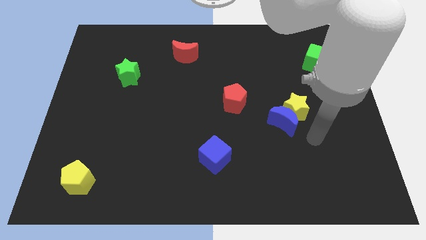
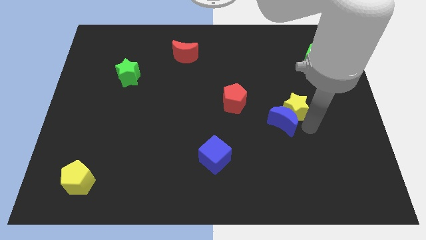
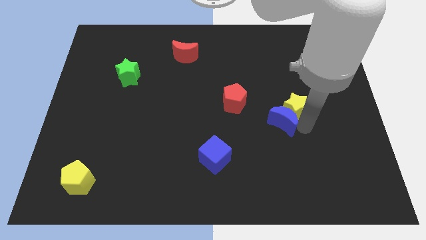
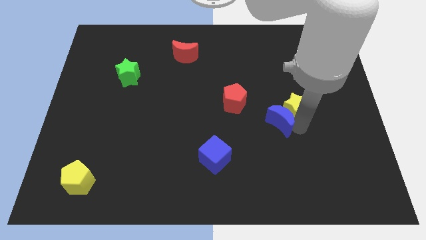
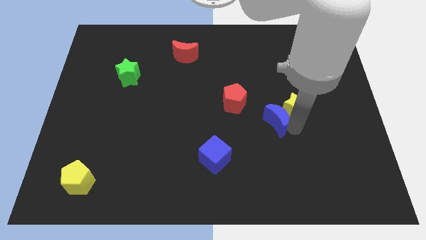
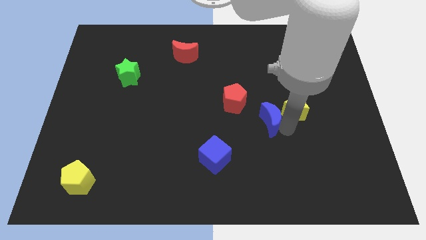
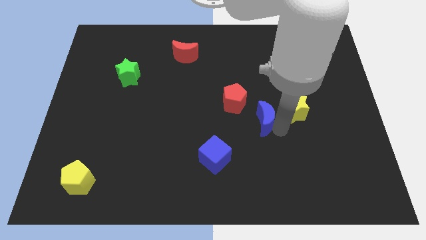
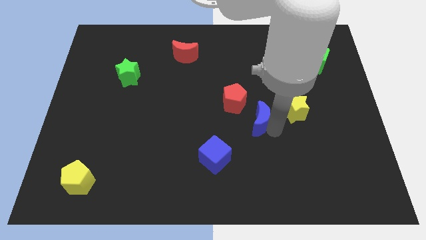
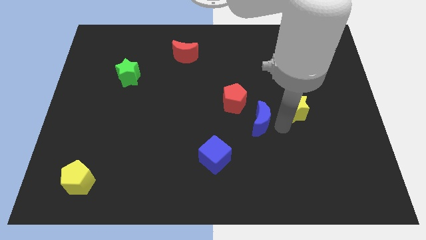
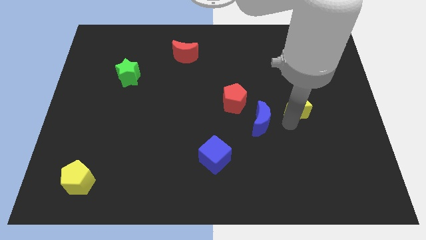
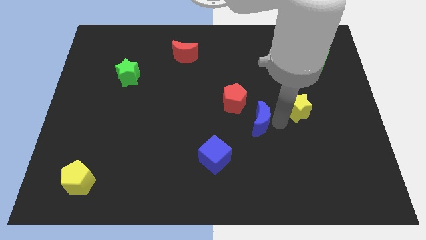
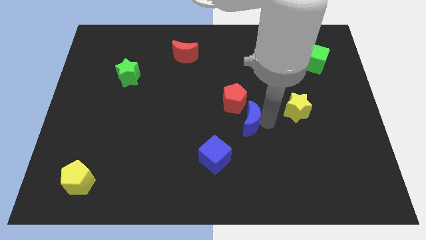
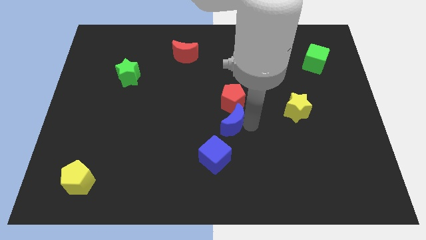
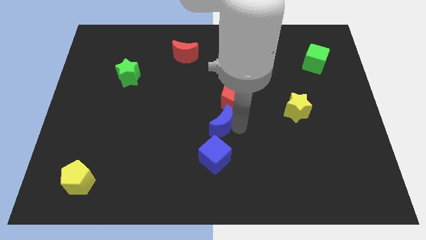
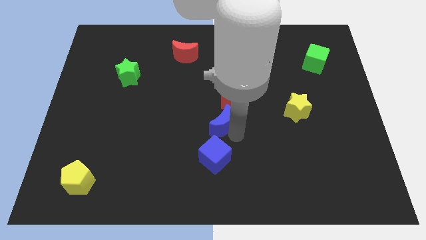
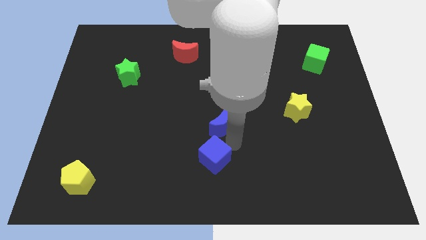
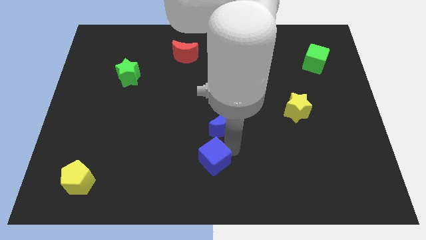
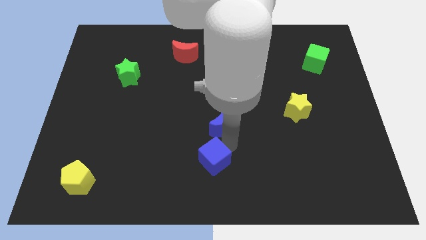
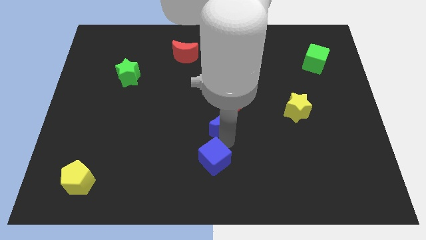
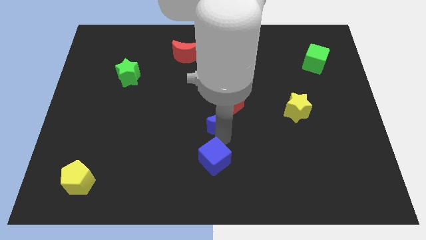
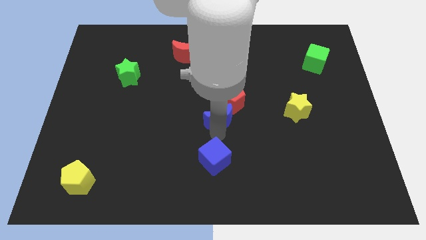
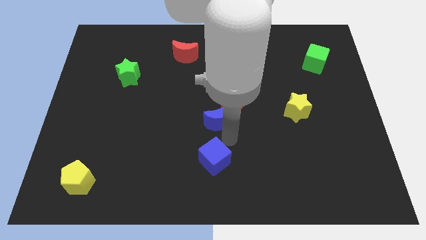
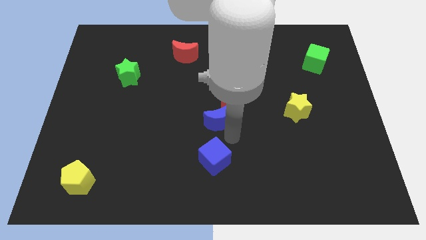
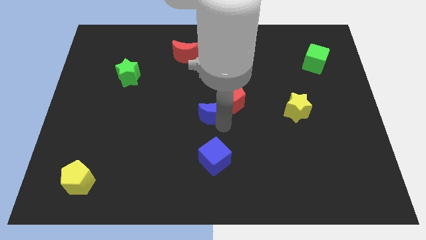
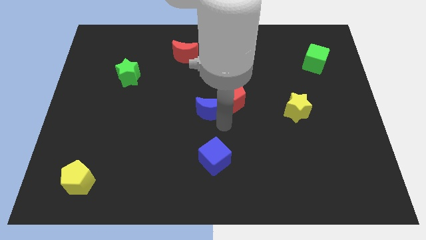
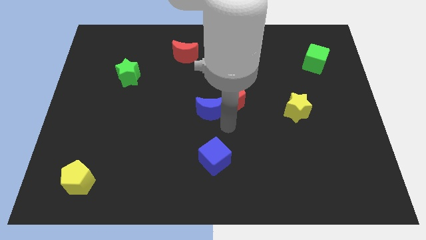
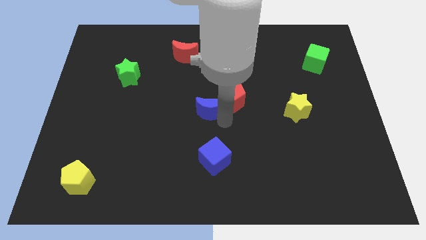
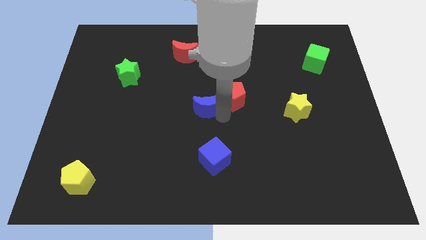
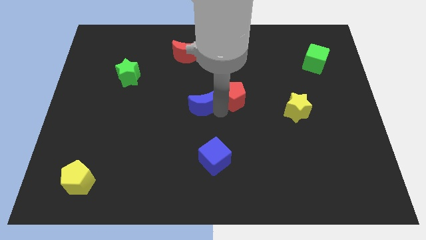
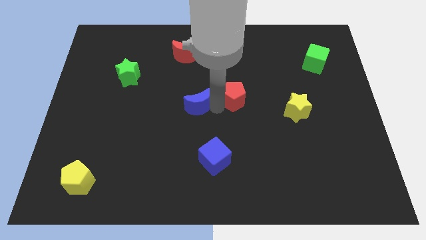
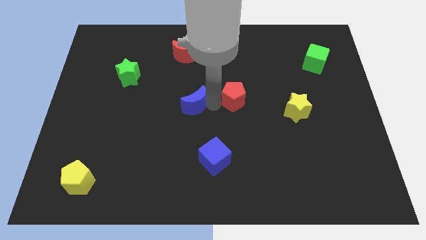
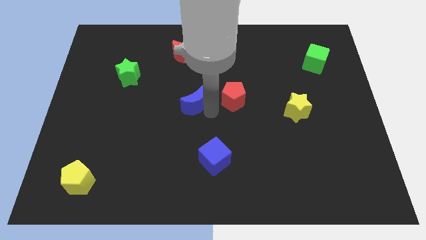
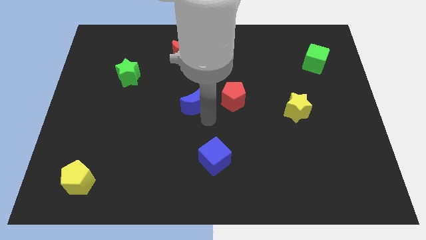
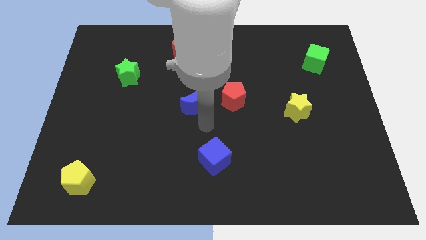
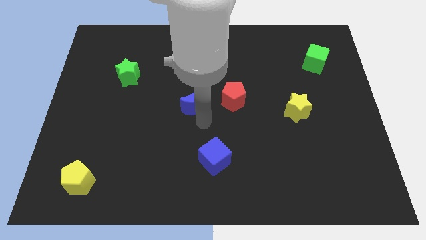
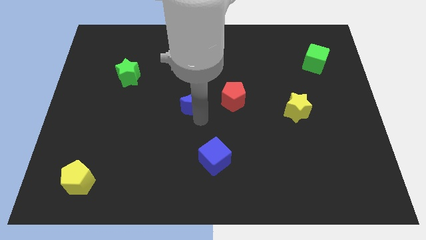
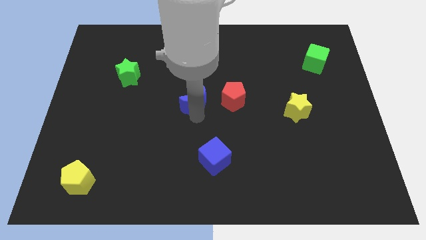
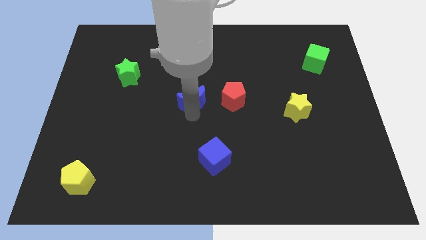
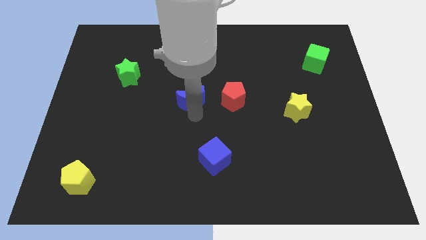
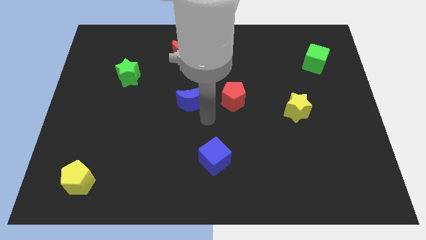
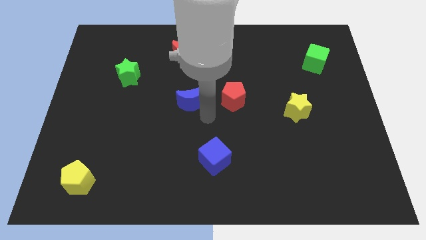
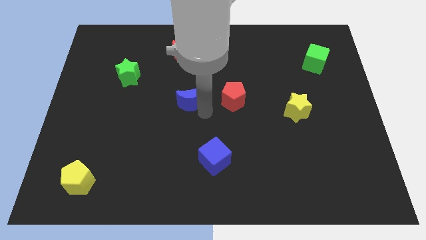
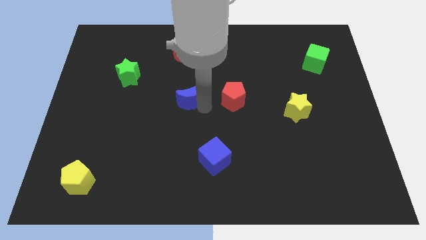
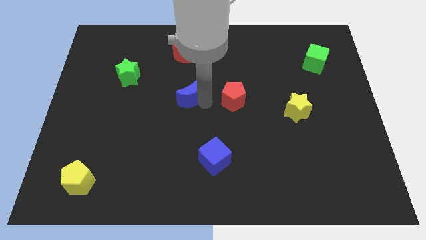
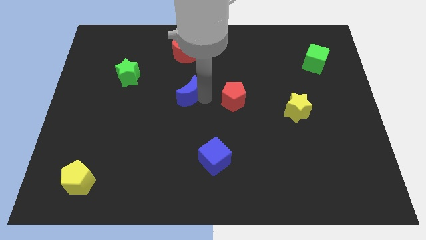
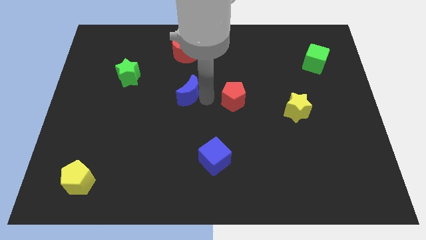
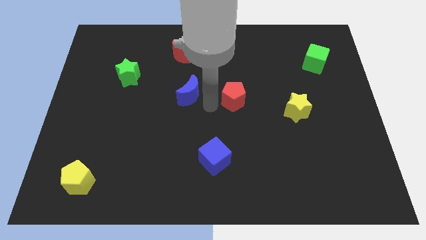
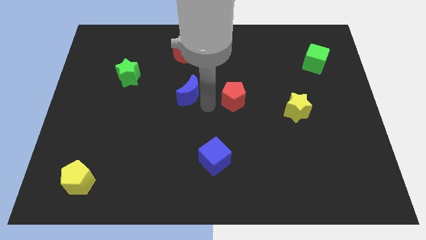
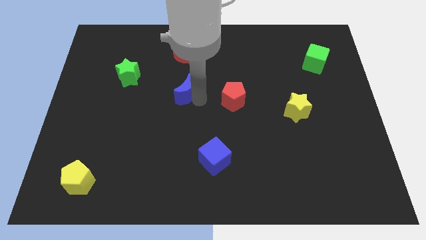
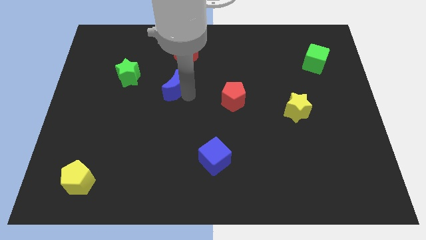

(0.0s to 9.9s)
move the blue moon to the right side of the green star

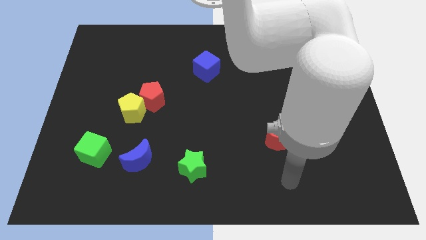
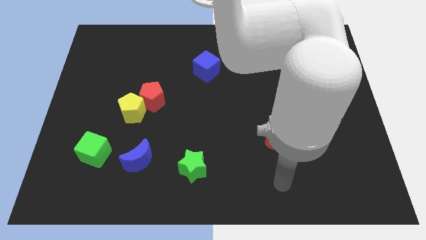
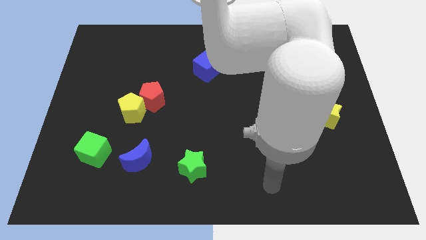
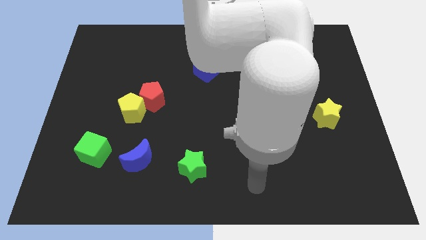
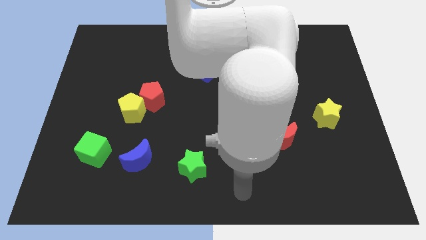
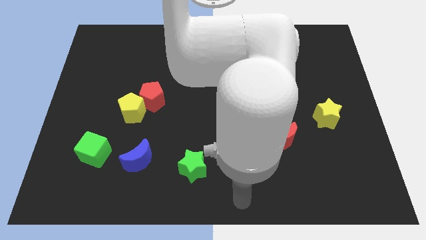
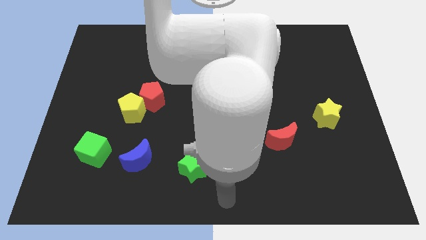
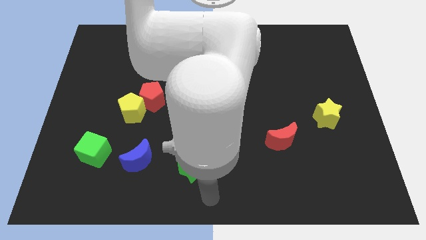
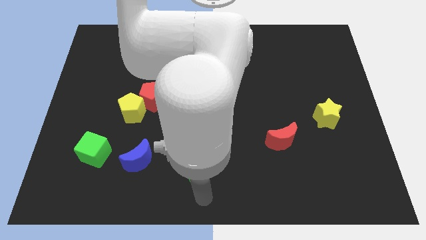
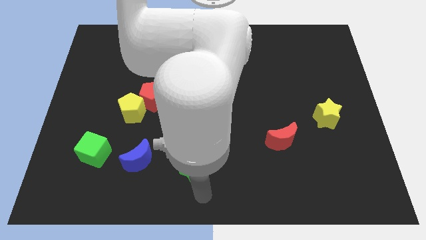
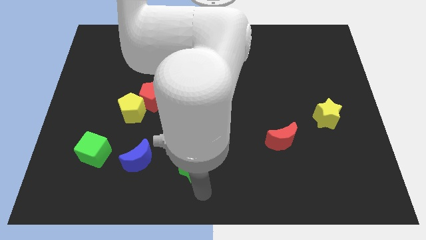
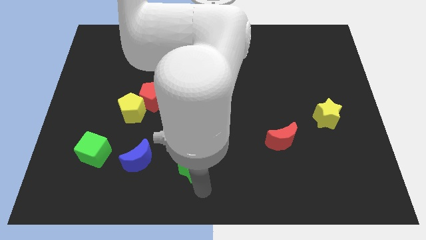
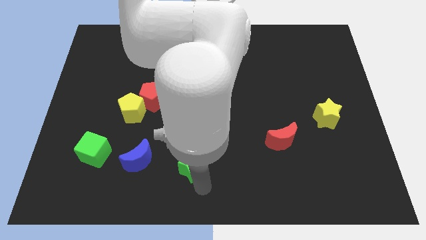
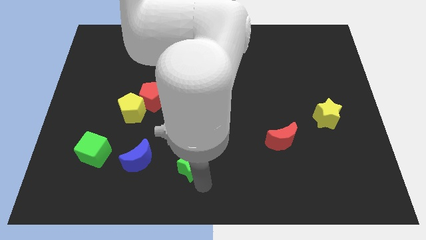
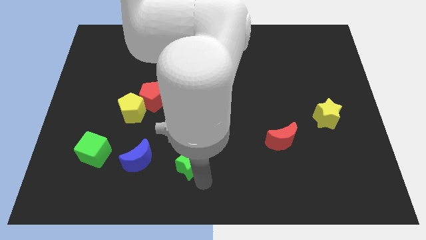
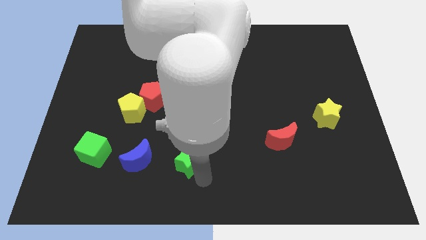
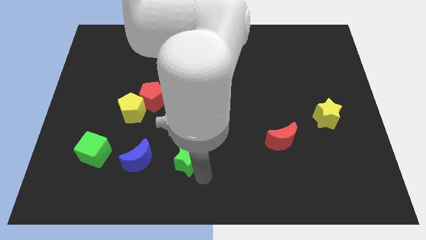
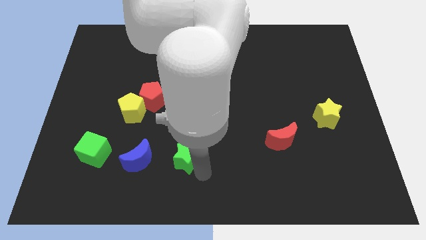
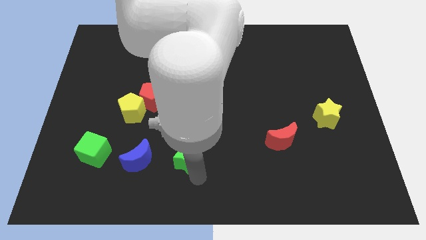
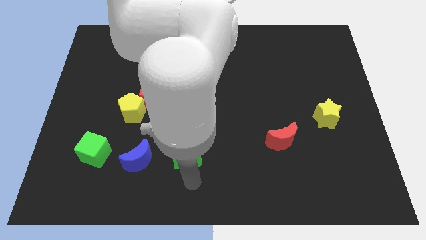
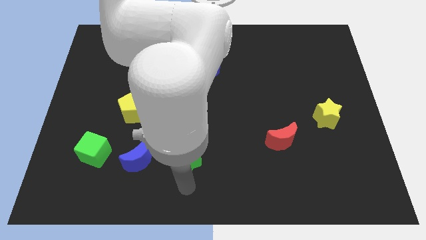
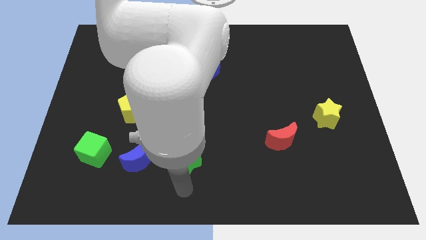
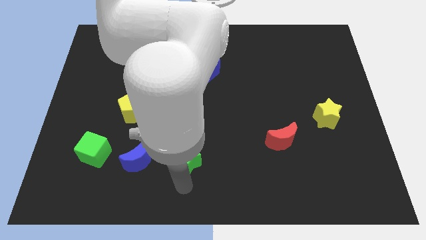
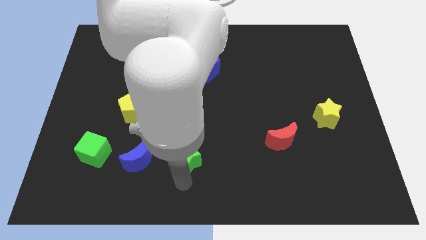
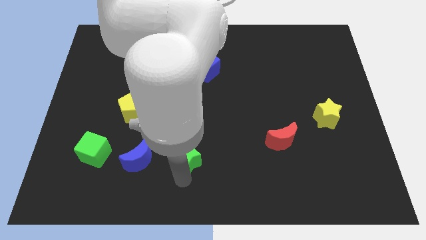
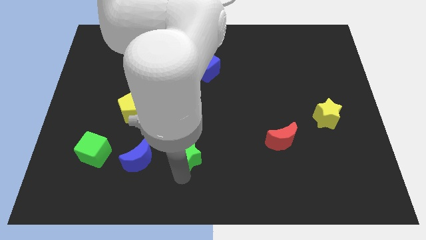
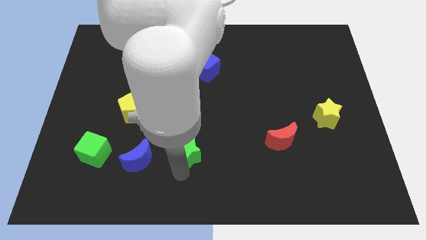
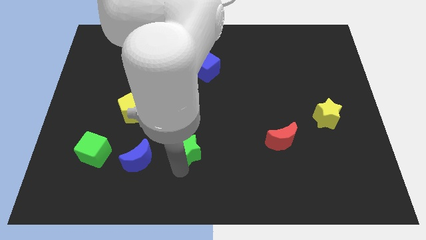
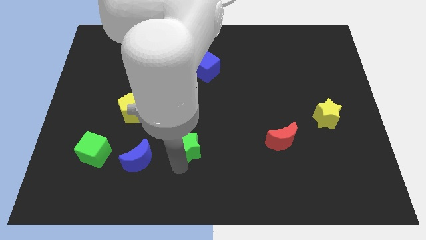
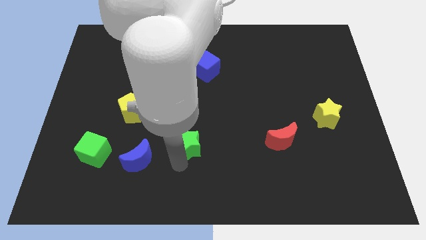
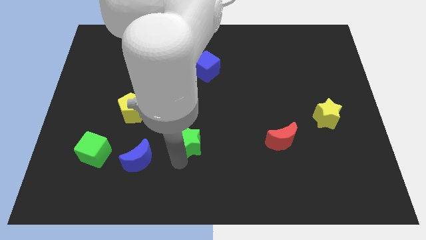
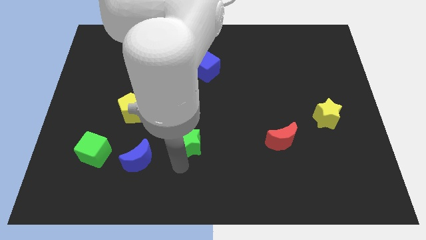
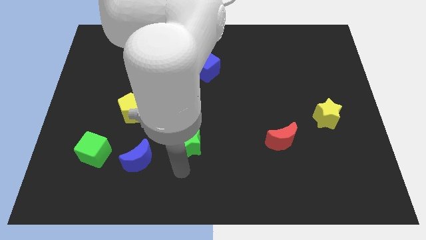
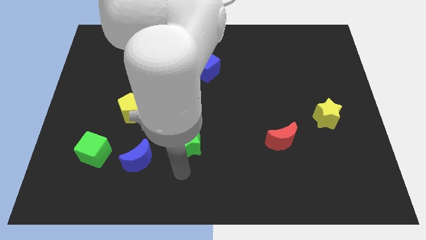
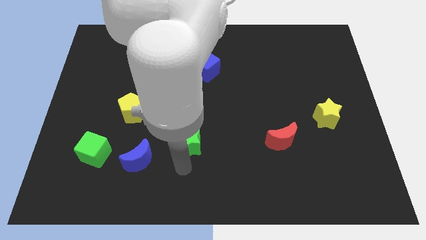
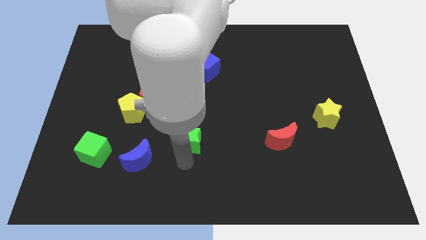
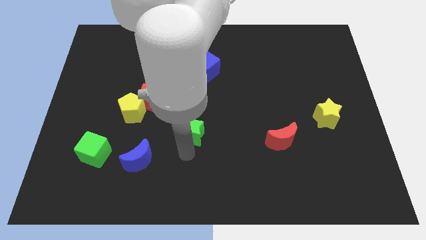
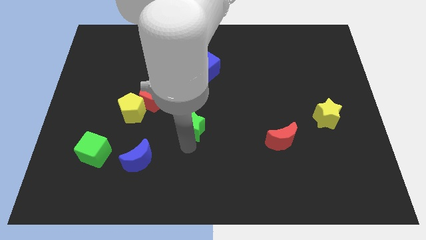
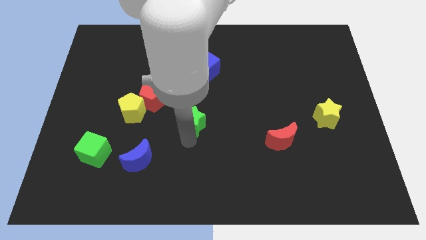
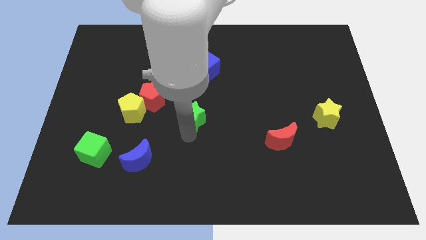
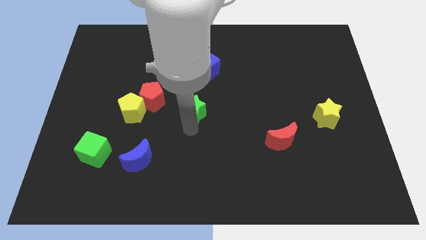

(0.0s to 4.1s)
push the green star to the right of the red pentagon
